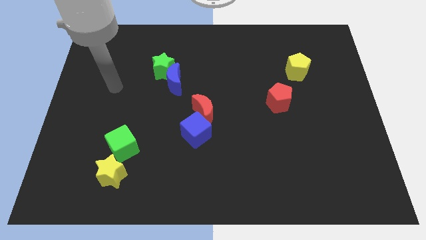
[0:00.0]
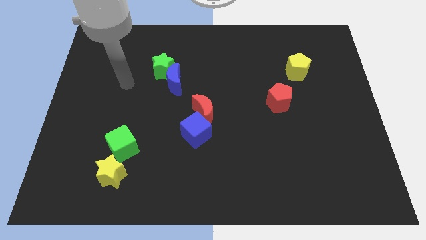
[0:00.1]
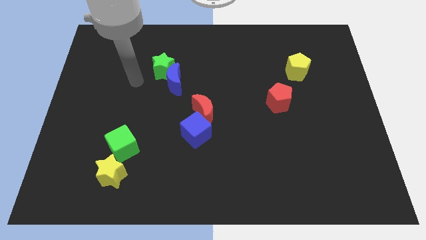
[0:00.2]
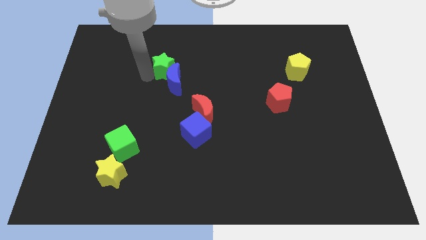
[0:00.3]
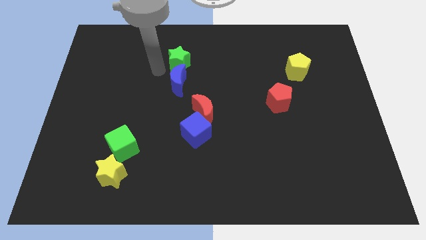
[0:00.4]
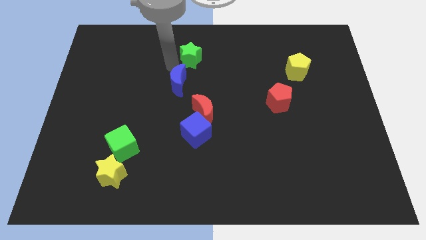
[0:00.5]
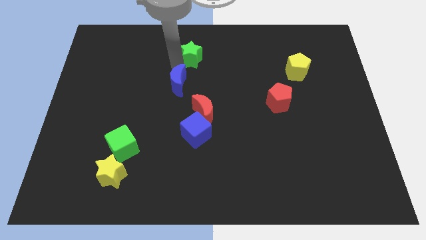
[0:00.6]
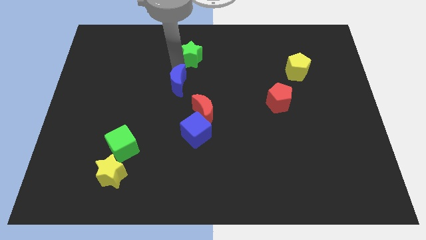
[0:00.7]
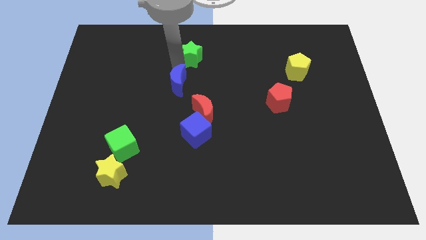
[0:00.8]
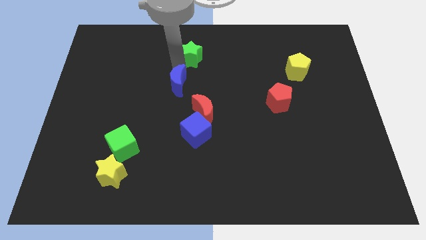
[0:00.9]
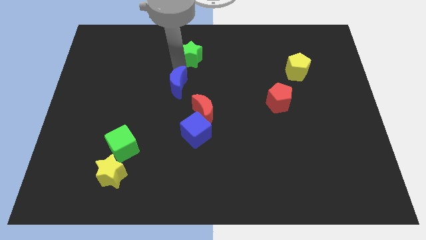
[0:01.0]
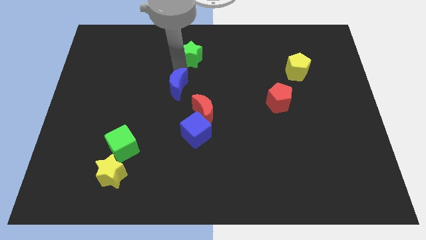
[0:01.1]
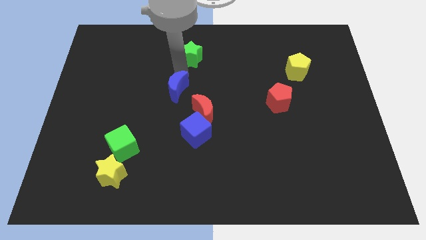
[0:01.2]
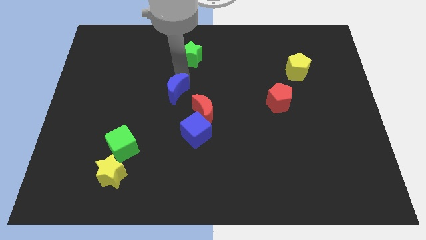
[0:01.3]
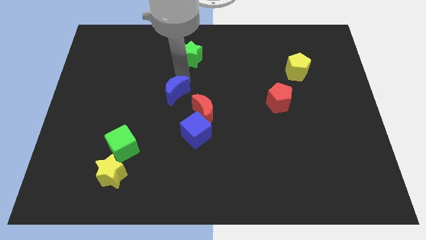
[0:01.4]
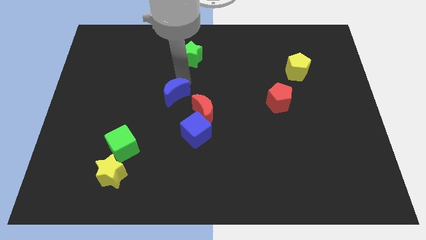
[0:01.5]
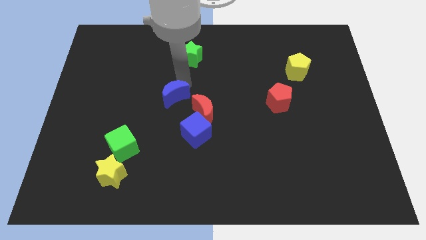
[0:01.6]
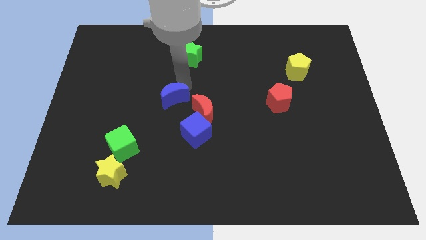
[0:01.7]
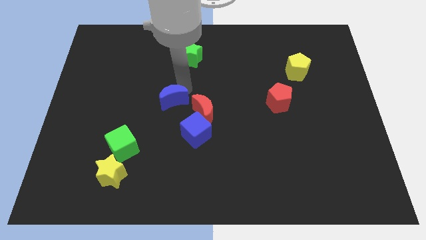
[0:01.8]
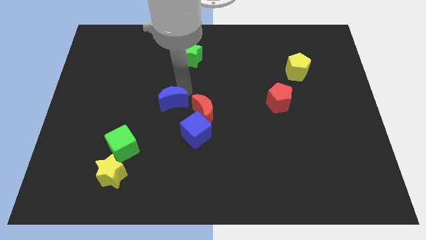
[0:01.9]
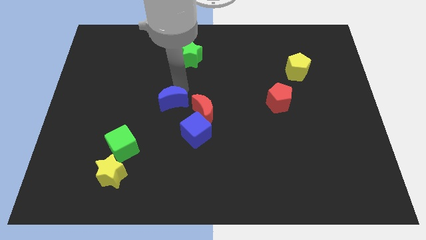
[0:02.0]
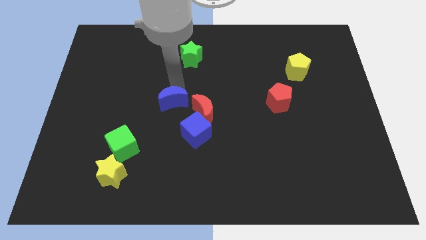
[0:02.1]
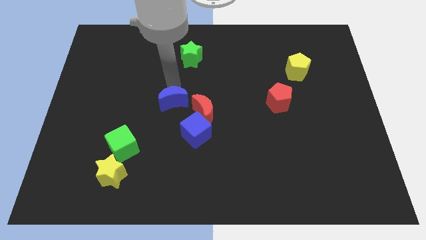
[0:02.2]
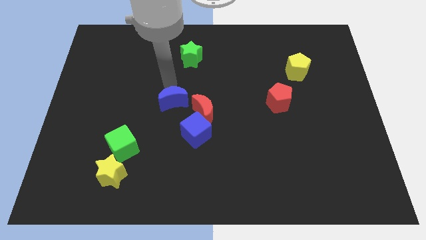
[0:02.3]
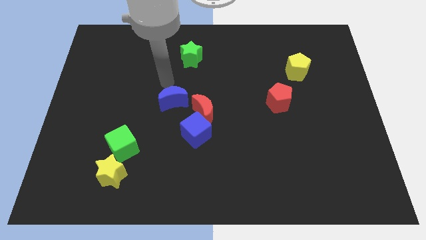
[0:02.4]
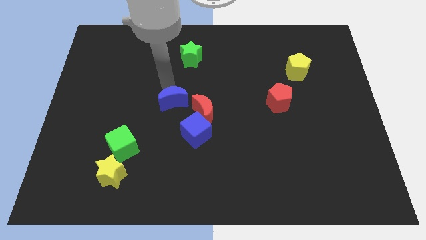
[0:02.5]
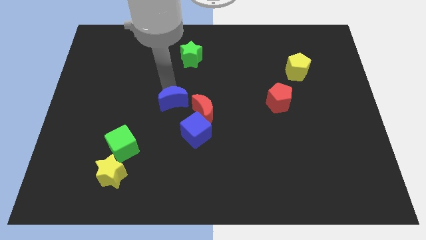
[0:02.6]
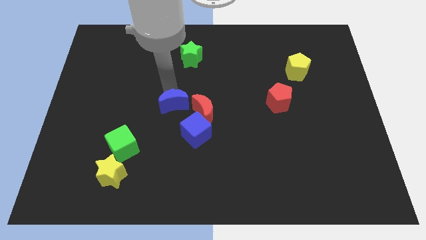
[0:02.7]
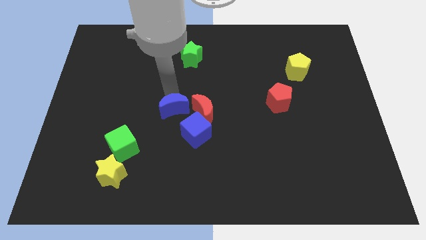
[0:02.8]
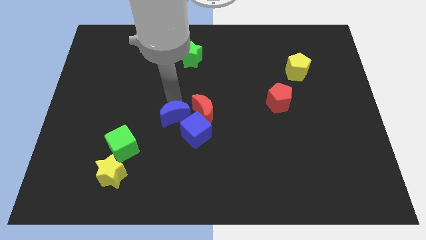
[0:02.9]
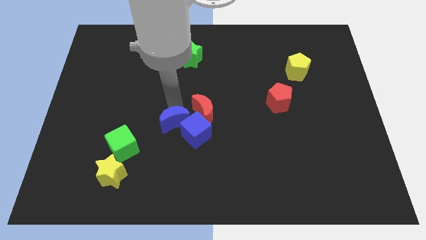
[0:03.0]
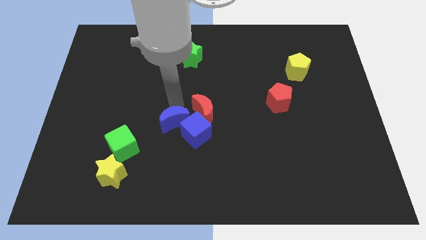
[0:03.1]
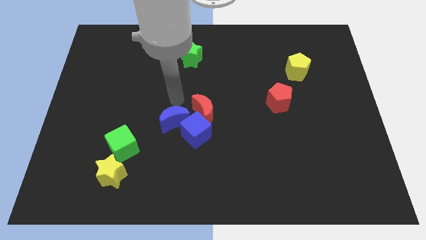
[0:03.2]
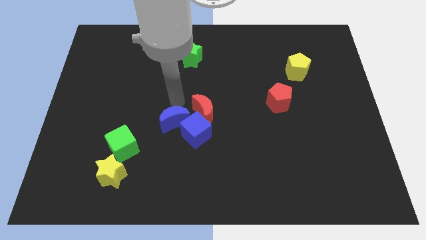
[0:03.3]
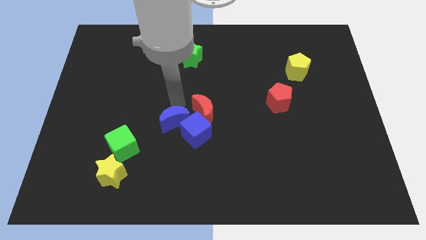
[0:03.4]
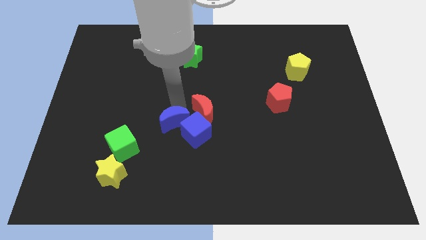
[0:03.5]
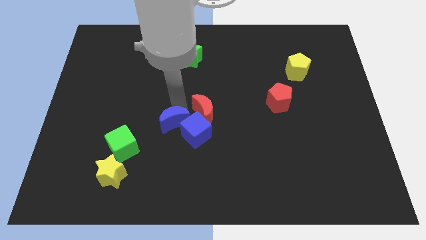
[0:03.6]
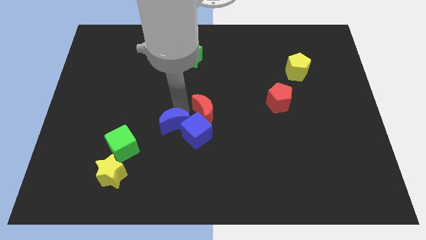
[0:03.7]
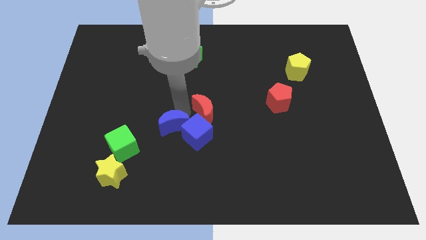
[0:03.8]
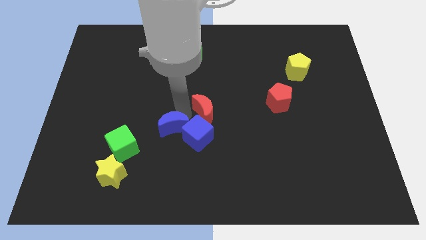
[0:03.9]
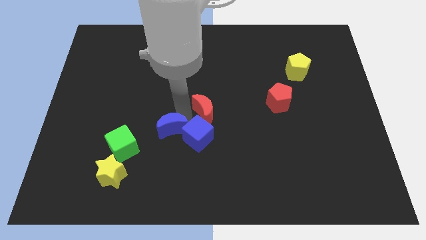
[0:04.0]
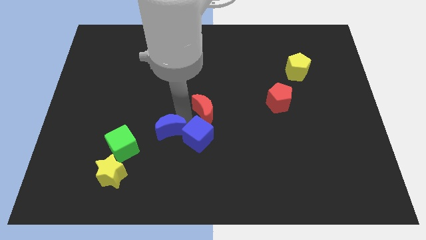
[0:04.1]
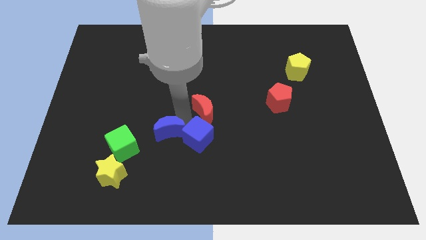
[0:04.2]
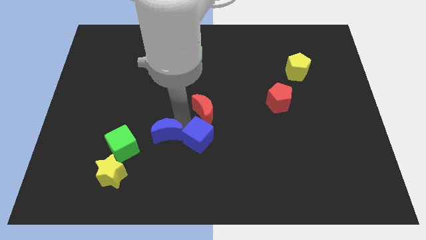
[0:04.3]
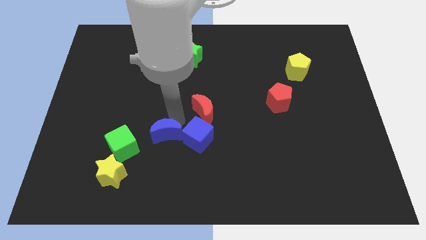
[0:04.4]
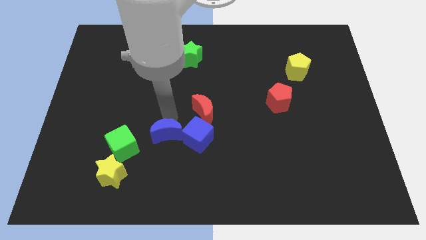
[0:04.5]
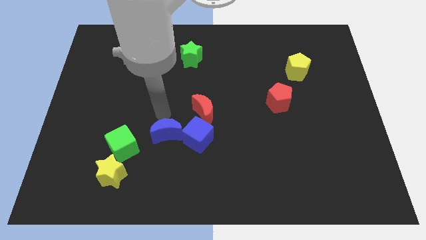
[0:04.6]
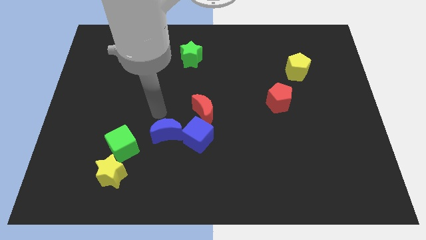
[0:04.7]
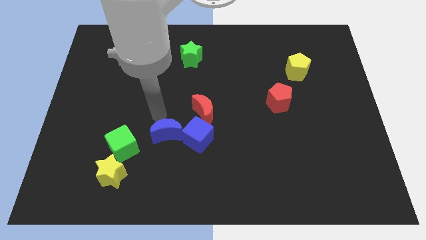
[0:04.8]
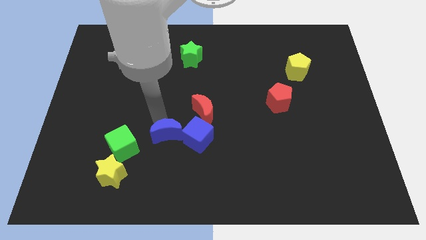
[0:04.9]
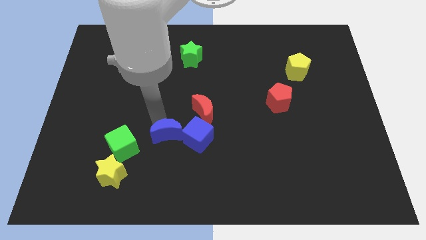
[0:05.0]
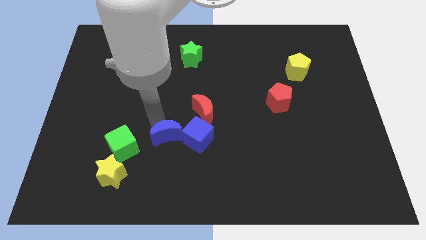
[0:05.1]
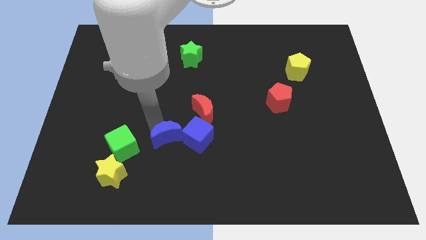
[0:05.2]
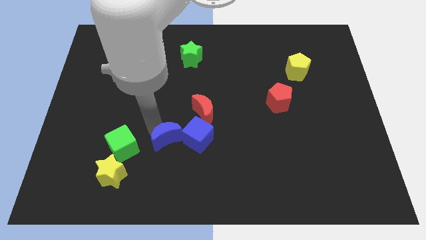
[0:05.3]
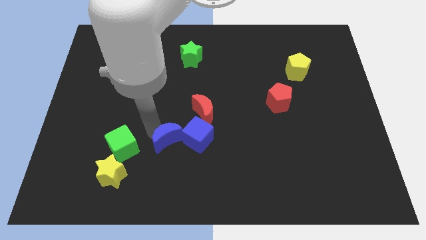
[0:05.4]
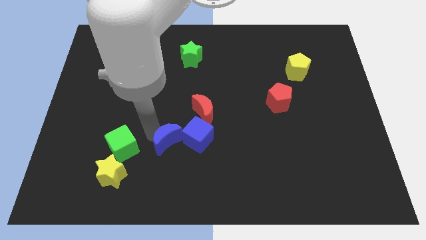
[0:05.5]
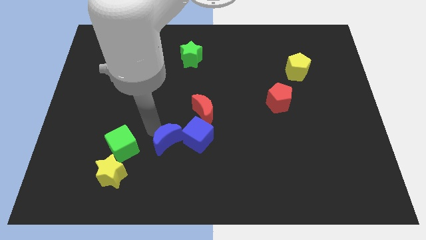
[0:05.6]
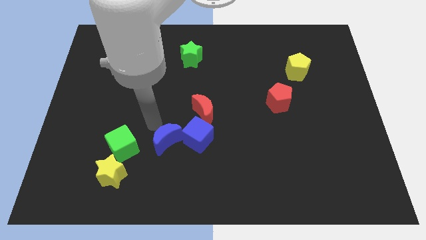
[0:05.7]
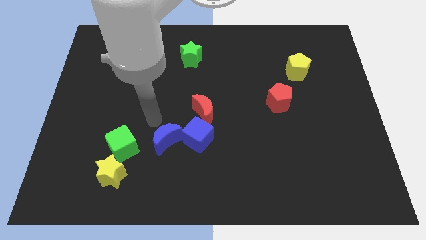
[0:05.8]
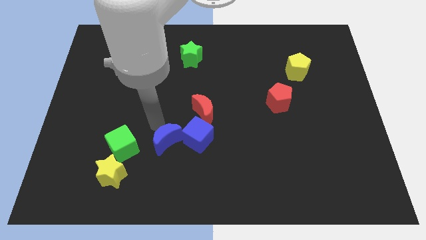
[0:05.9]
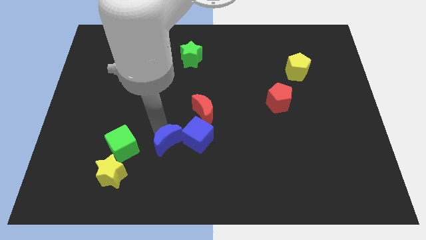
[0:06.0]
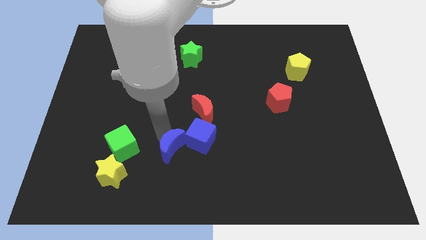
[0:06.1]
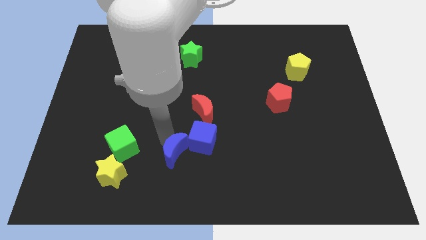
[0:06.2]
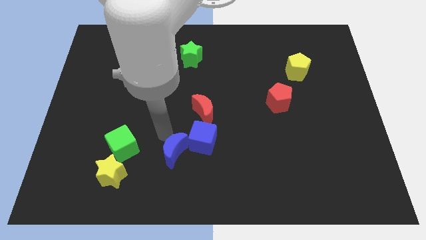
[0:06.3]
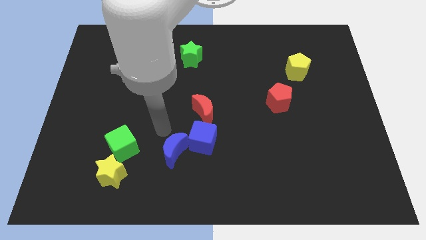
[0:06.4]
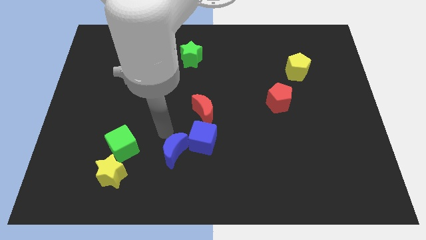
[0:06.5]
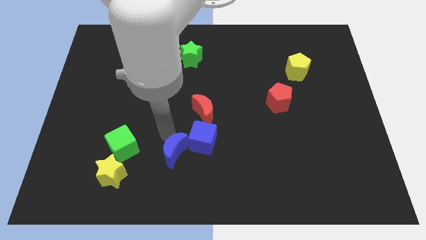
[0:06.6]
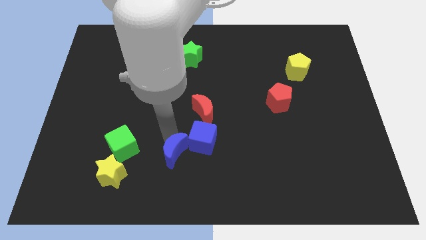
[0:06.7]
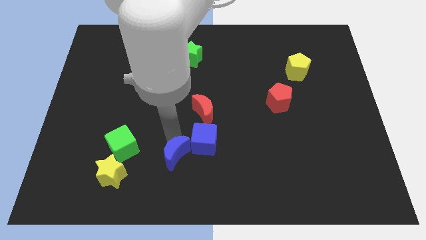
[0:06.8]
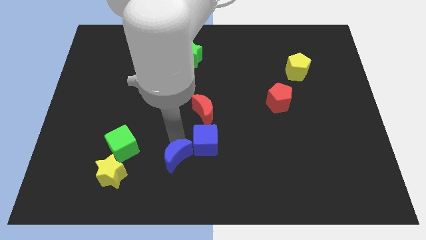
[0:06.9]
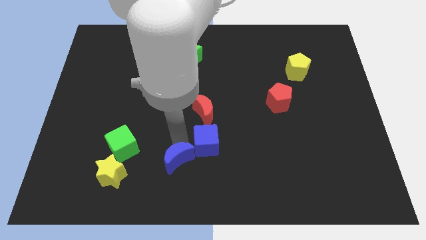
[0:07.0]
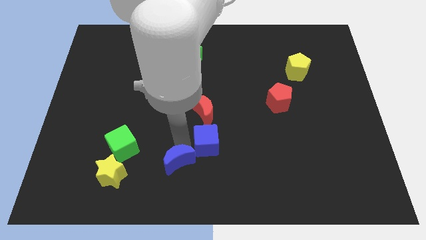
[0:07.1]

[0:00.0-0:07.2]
push the blue moon to the bottom
